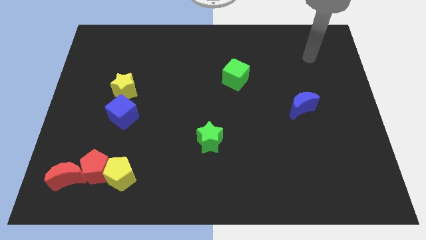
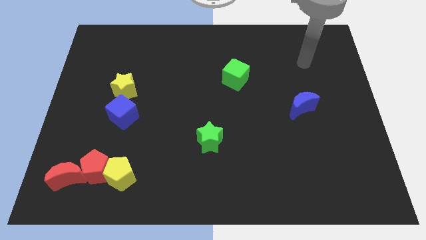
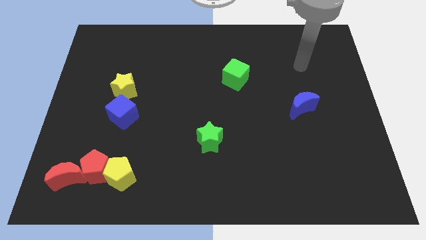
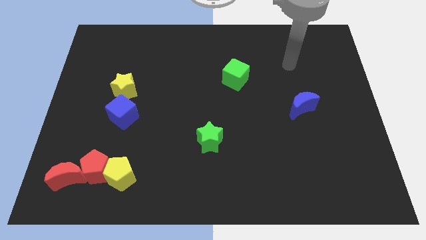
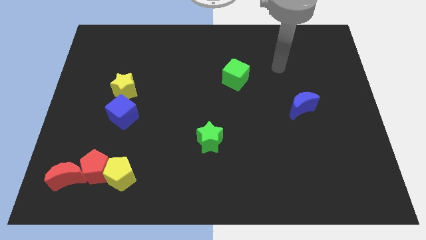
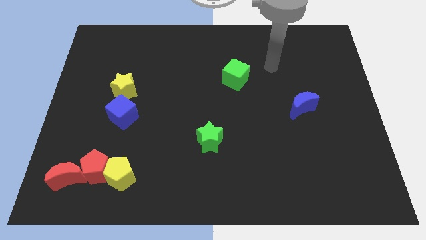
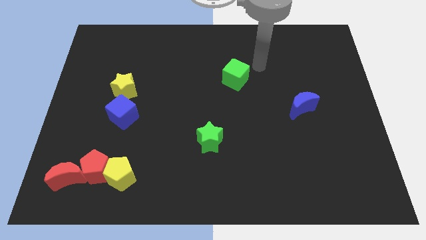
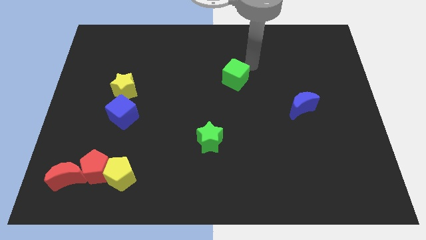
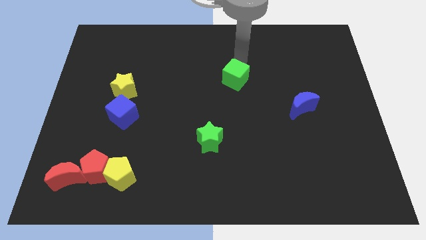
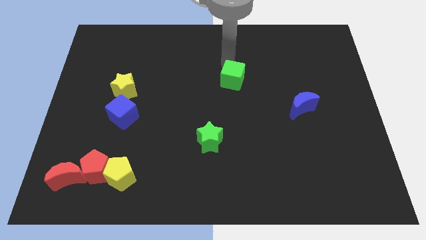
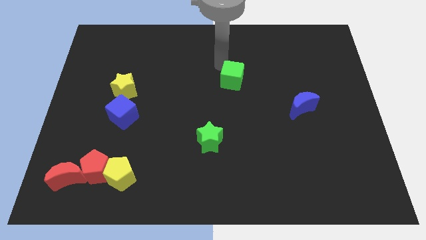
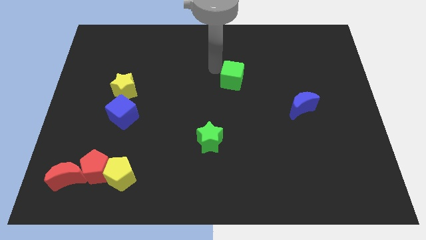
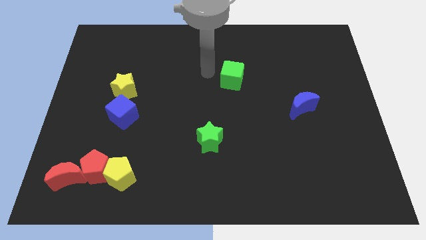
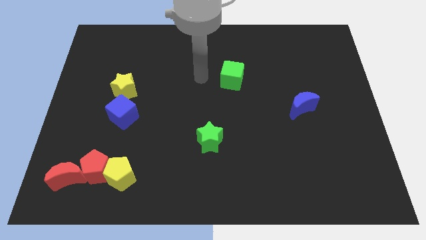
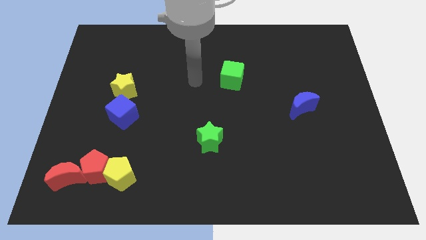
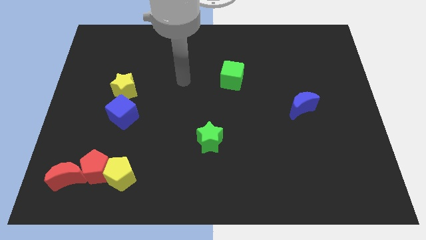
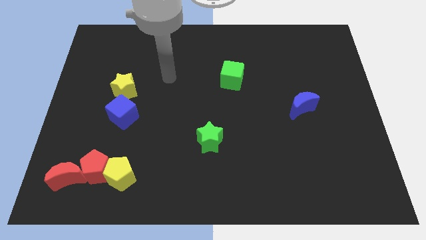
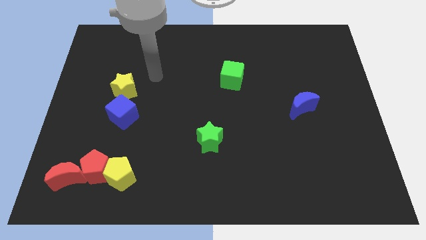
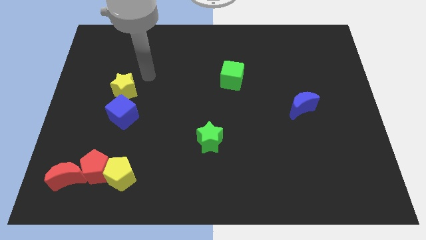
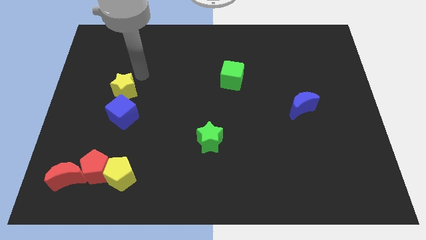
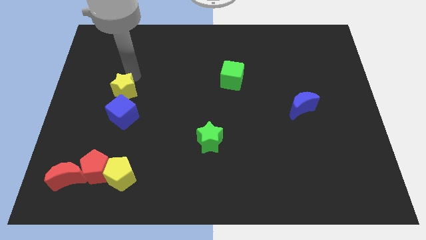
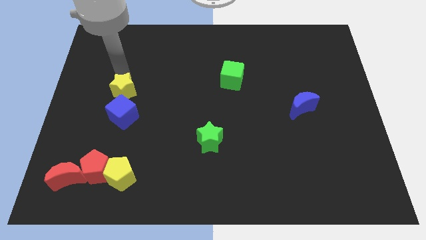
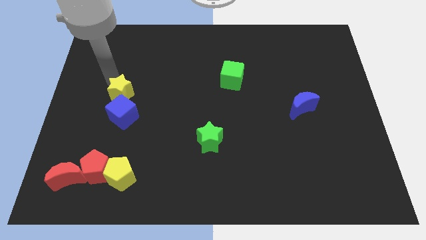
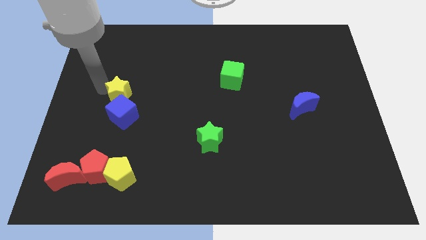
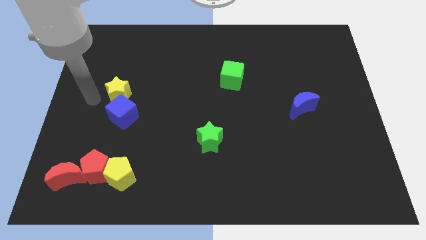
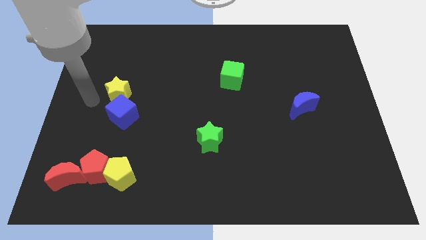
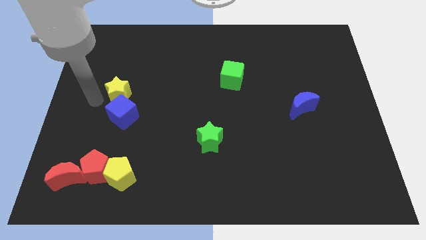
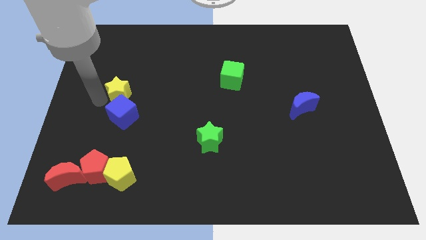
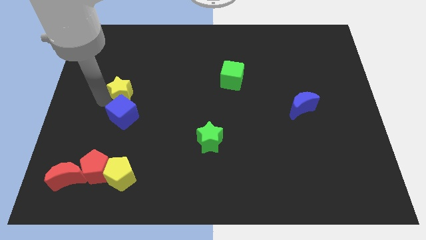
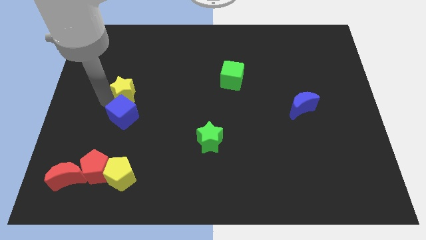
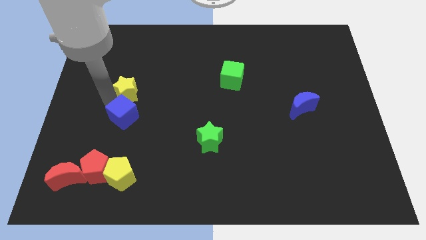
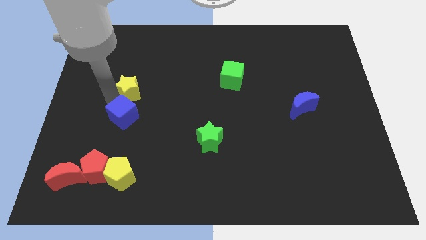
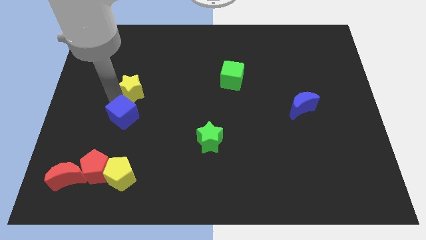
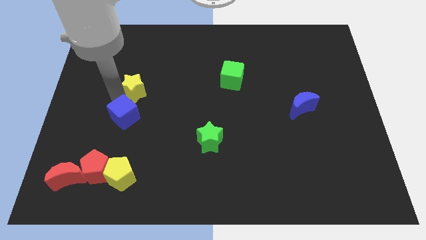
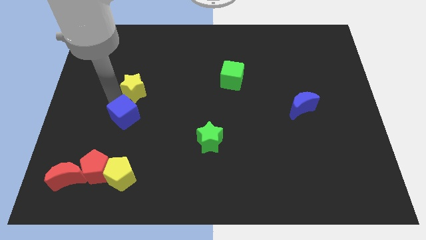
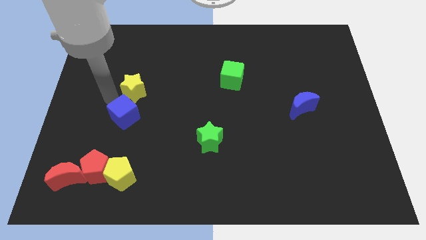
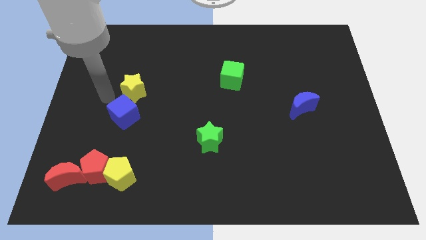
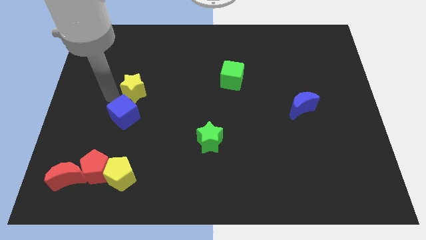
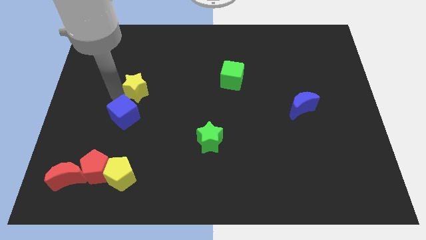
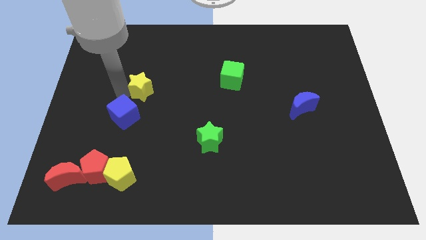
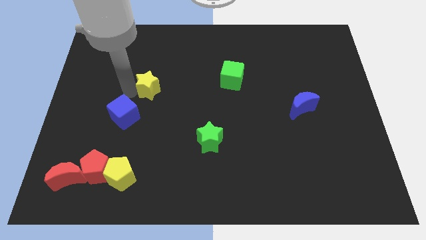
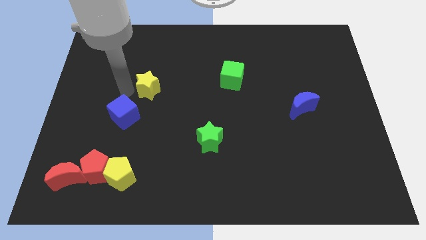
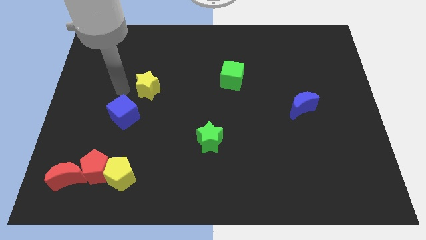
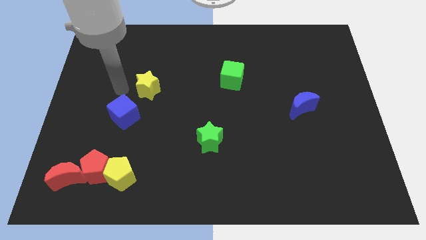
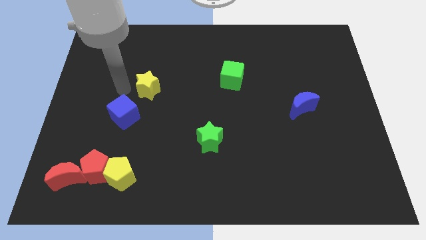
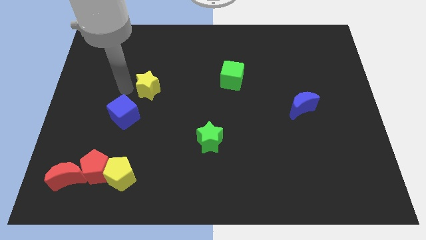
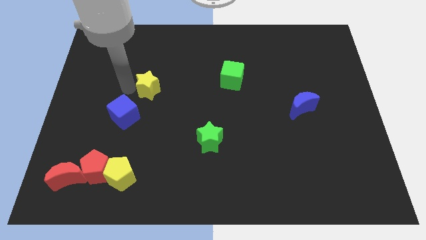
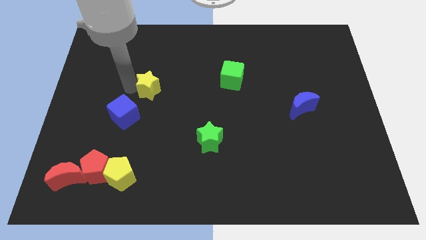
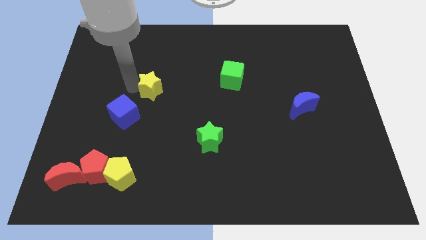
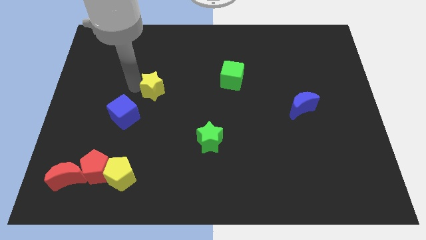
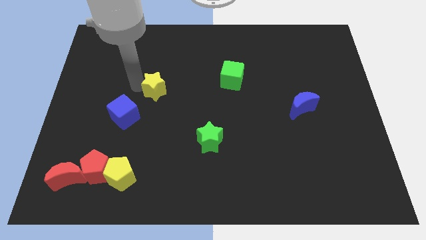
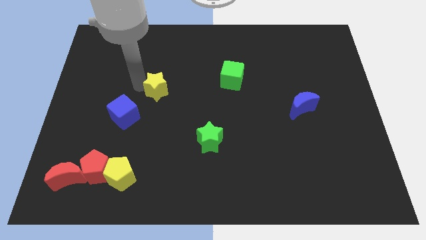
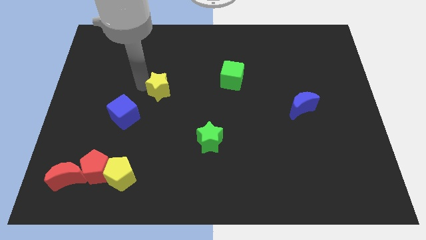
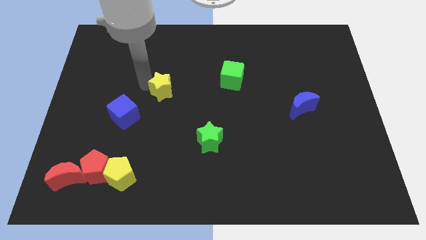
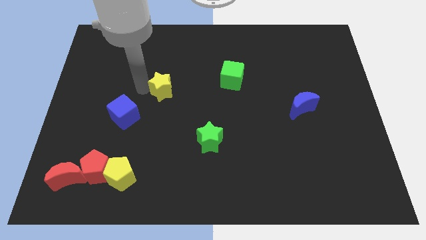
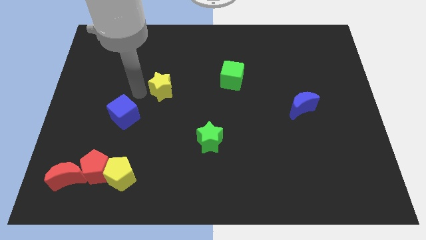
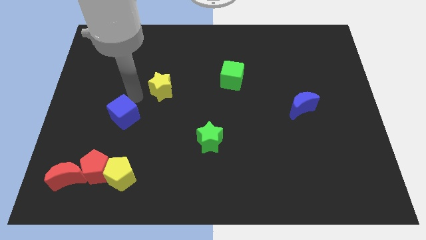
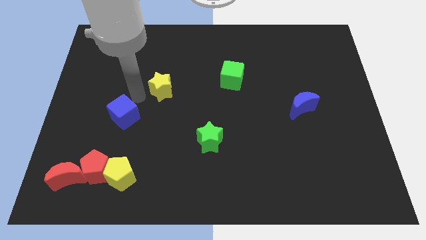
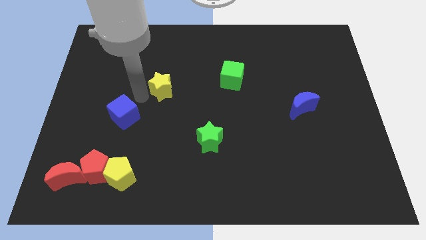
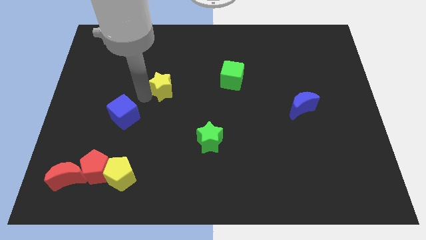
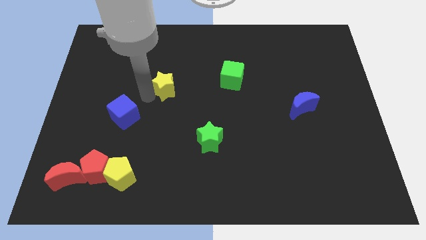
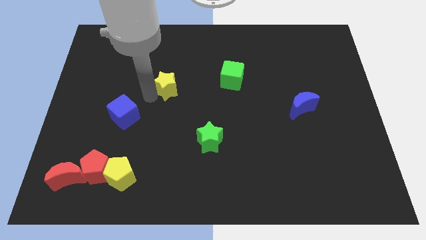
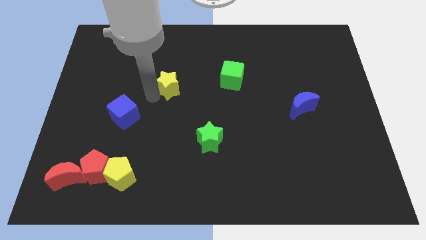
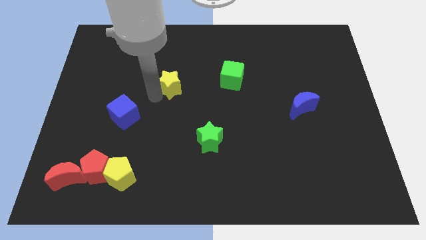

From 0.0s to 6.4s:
slide the yellow star left of the green cube

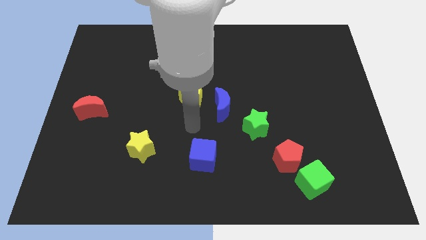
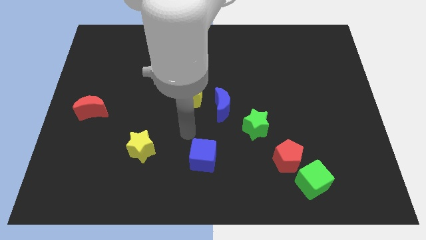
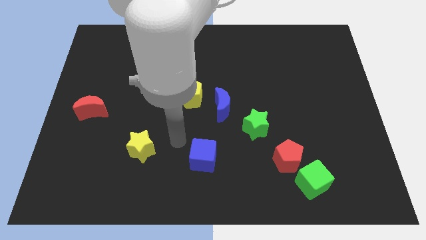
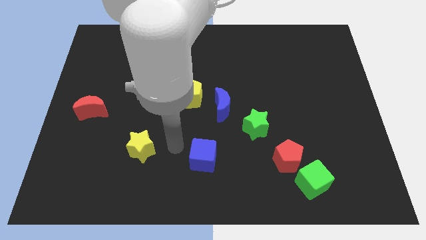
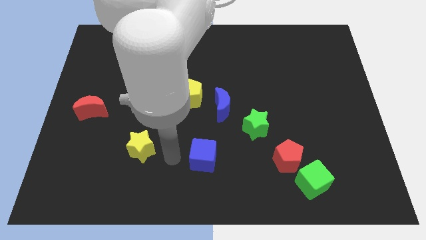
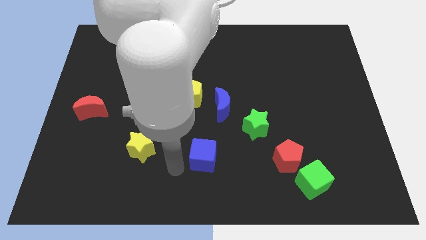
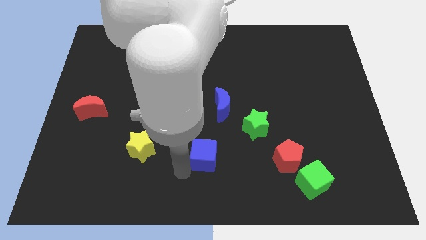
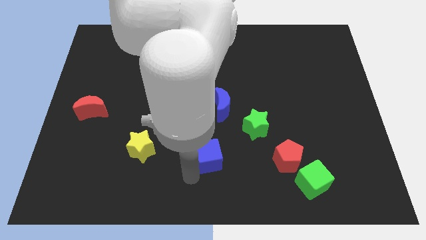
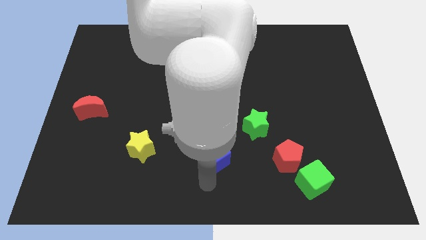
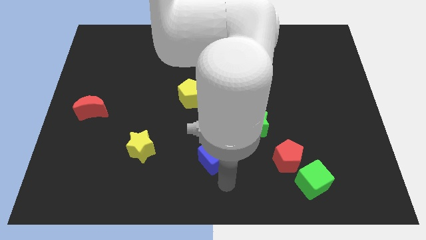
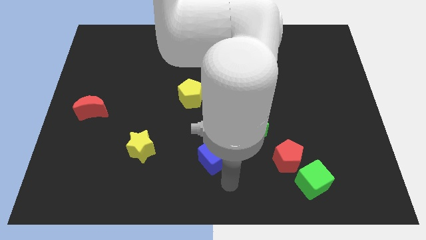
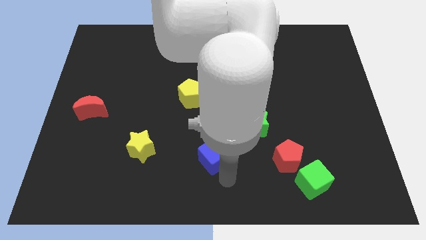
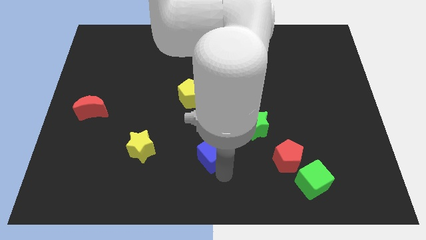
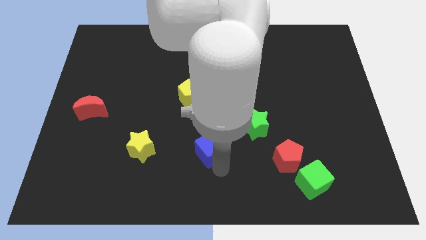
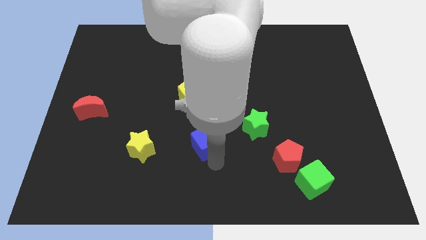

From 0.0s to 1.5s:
put the blue cube left of the green star
